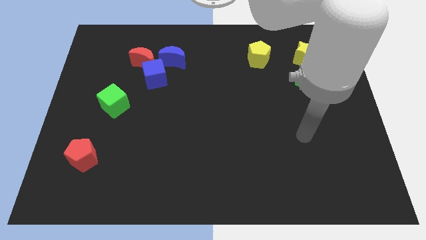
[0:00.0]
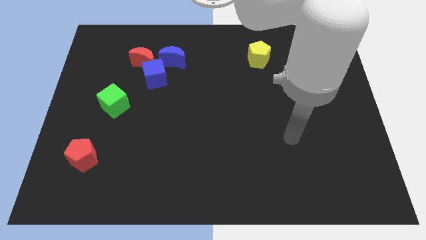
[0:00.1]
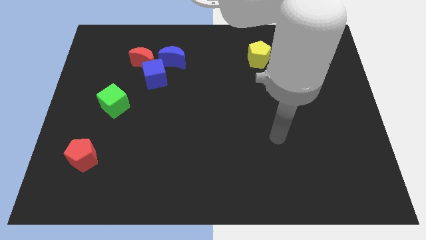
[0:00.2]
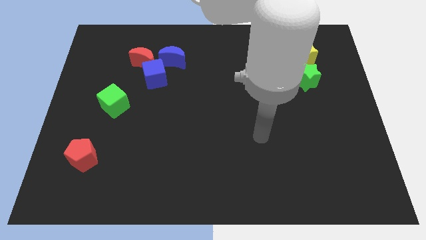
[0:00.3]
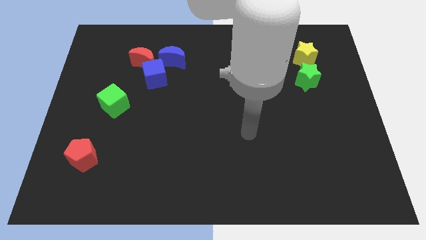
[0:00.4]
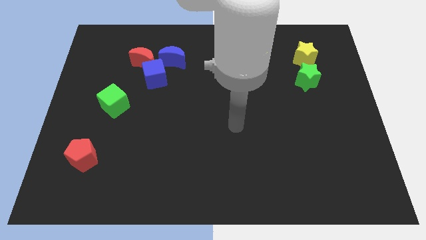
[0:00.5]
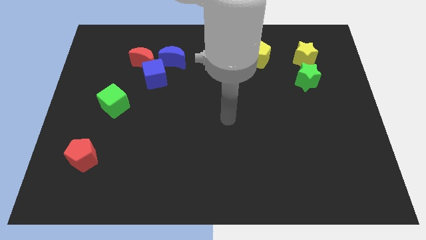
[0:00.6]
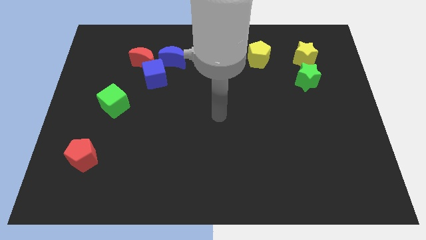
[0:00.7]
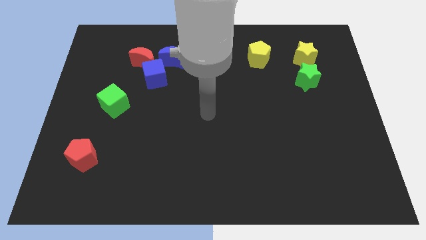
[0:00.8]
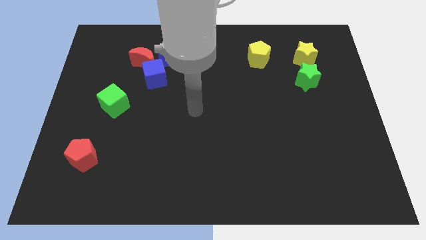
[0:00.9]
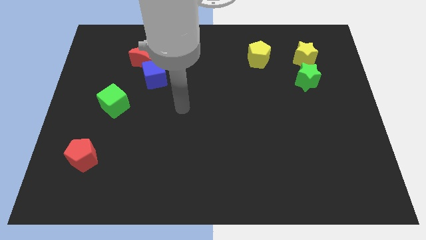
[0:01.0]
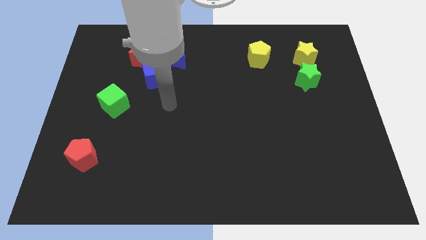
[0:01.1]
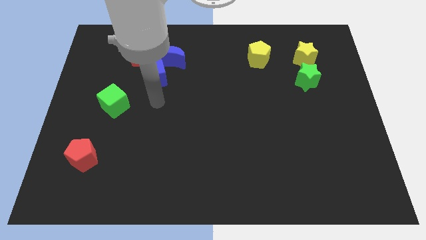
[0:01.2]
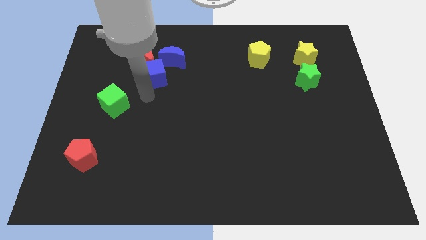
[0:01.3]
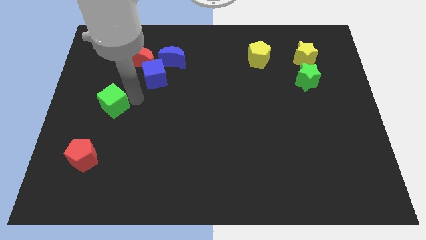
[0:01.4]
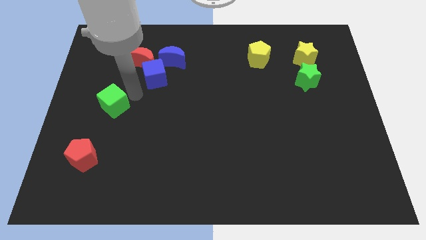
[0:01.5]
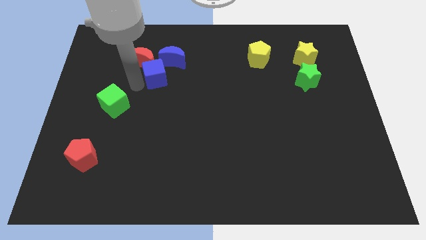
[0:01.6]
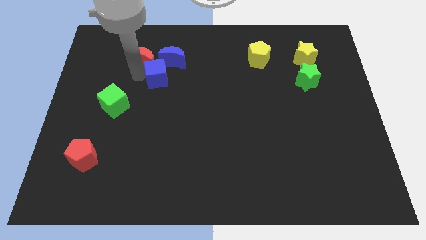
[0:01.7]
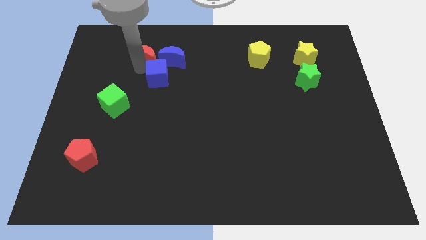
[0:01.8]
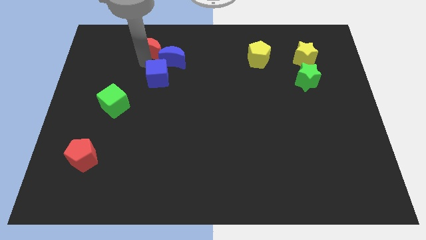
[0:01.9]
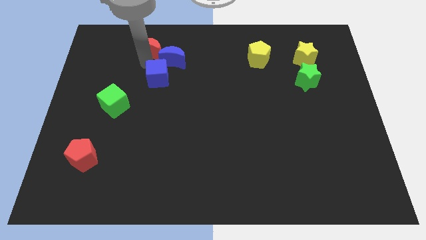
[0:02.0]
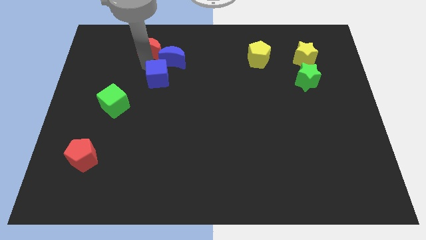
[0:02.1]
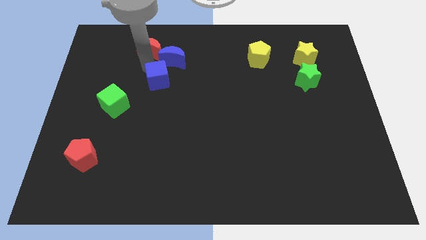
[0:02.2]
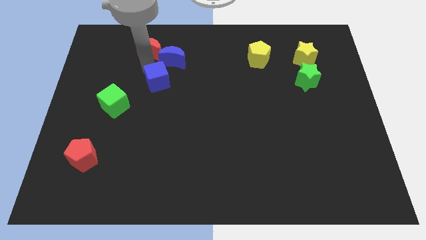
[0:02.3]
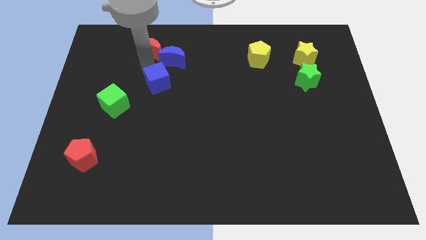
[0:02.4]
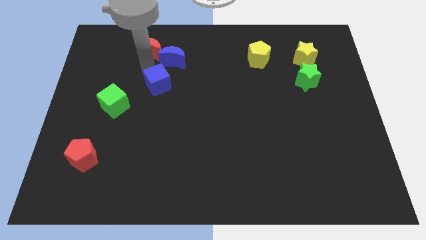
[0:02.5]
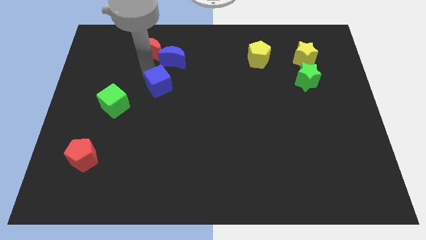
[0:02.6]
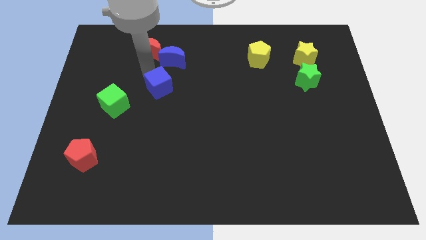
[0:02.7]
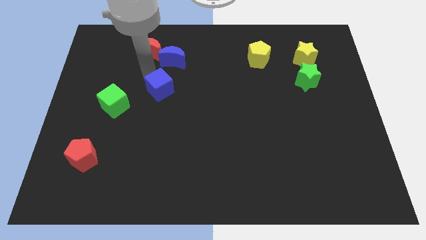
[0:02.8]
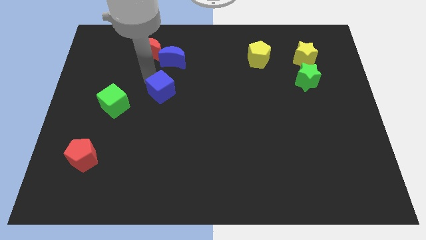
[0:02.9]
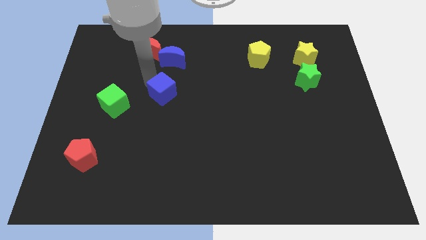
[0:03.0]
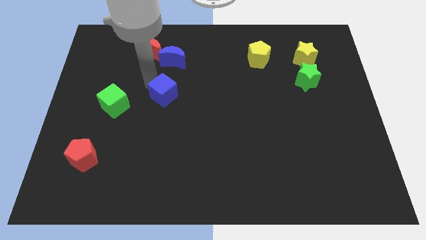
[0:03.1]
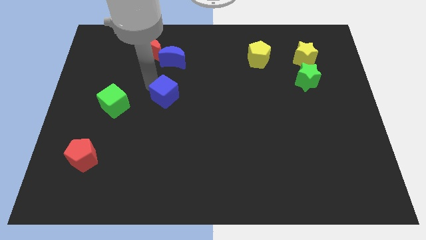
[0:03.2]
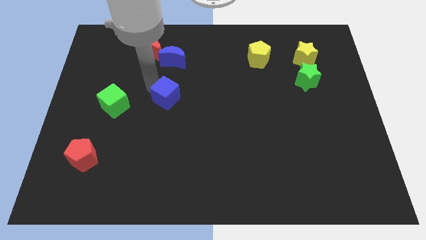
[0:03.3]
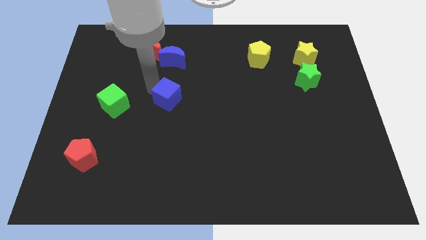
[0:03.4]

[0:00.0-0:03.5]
slide the blue cube a little down and then right

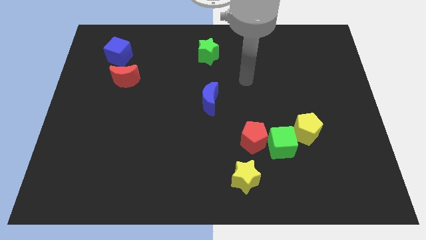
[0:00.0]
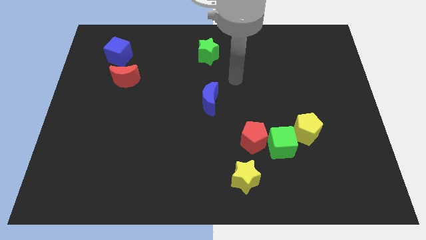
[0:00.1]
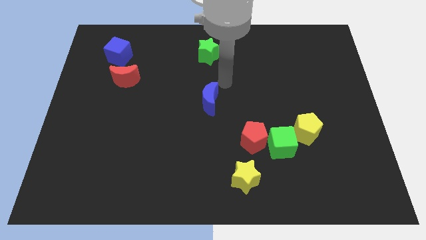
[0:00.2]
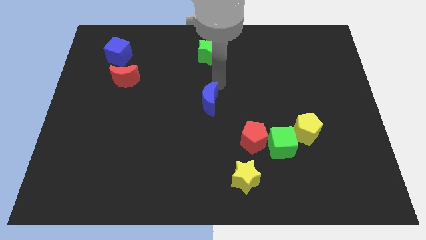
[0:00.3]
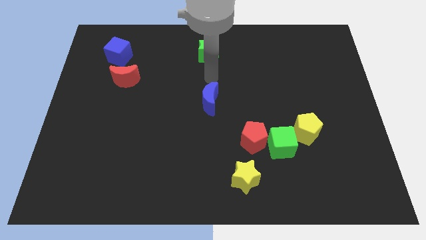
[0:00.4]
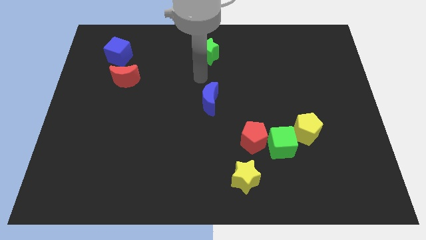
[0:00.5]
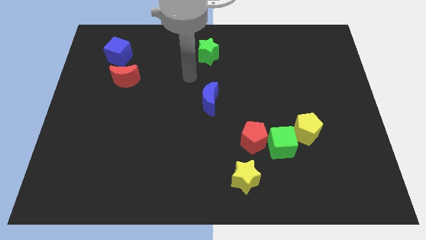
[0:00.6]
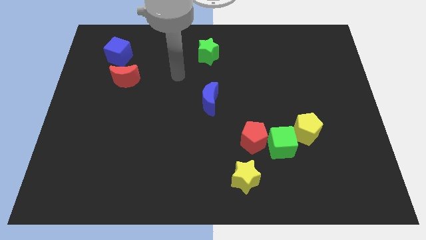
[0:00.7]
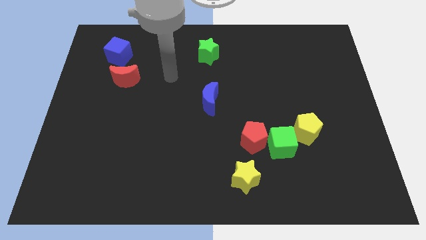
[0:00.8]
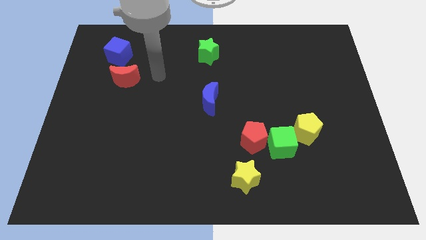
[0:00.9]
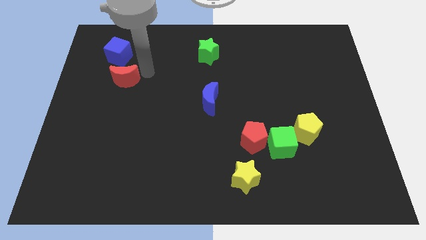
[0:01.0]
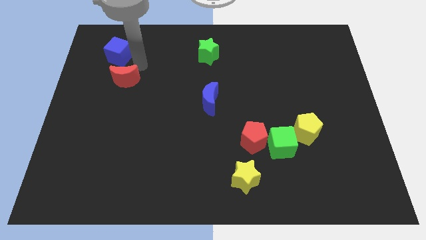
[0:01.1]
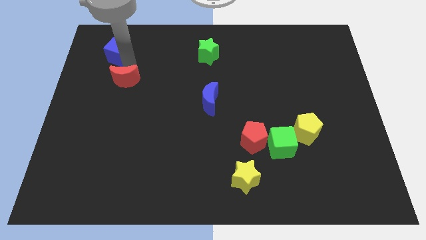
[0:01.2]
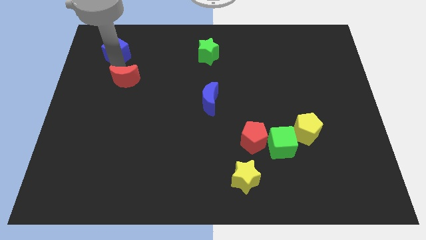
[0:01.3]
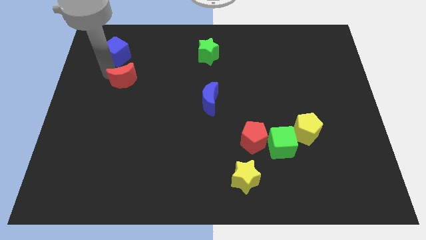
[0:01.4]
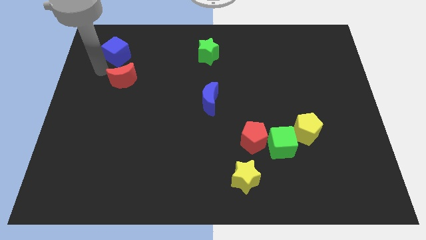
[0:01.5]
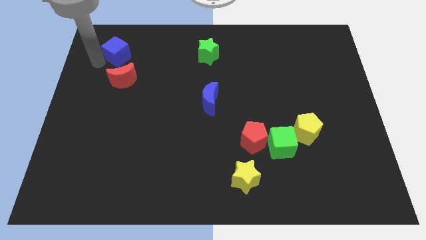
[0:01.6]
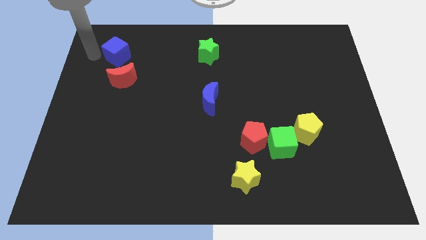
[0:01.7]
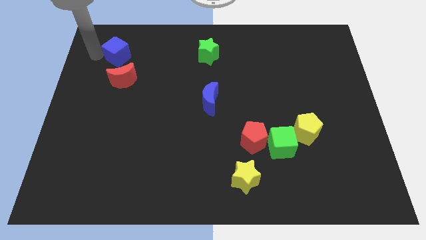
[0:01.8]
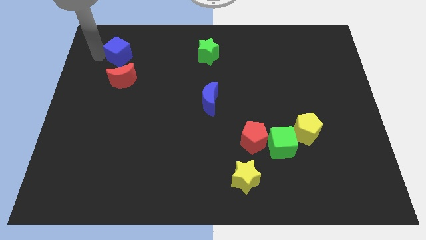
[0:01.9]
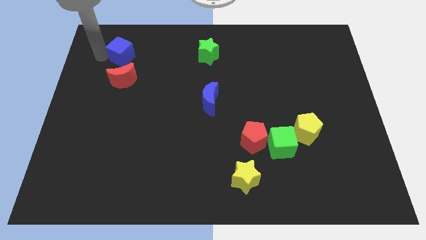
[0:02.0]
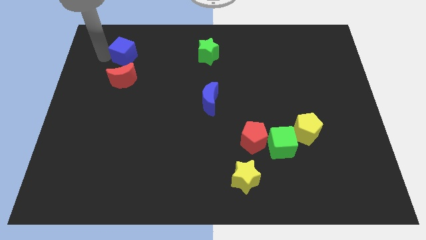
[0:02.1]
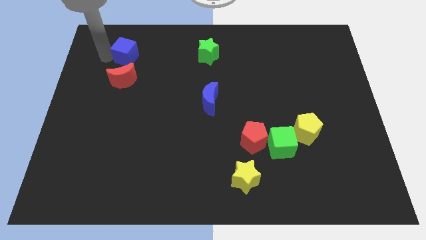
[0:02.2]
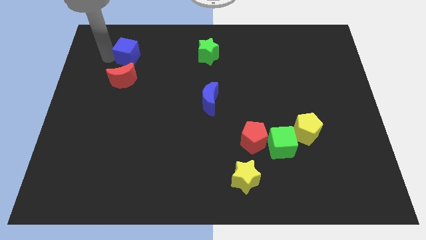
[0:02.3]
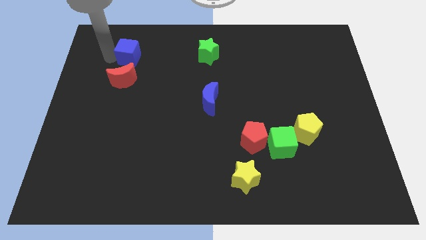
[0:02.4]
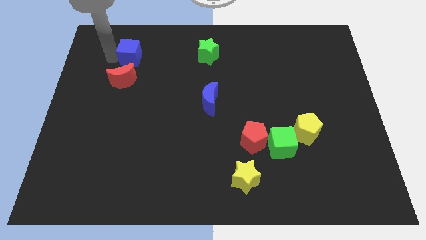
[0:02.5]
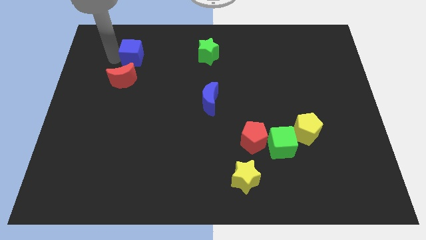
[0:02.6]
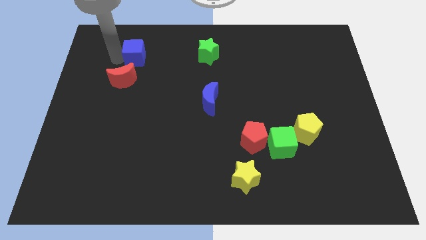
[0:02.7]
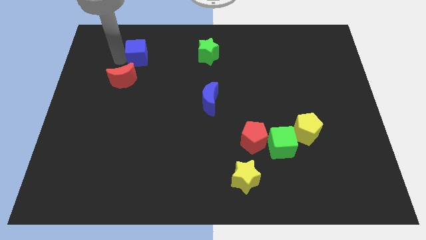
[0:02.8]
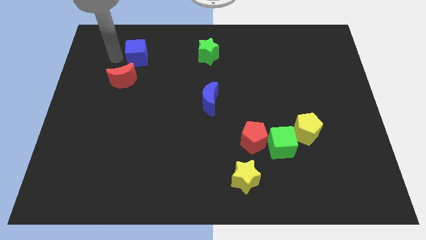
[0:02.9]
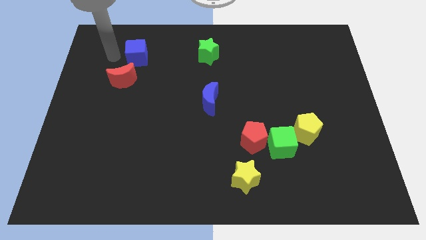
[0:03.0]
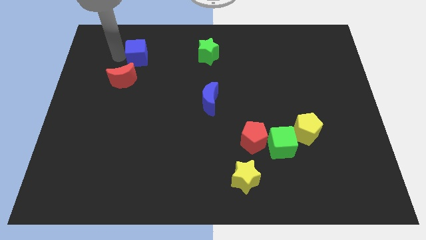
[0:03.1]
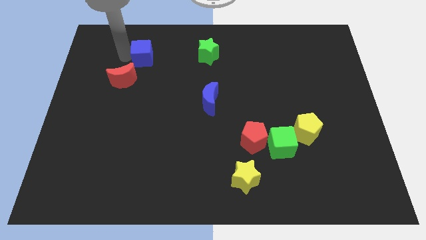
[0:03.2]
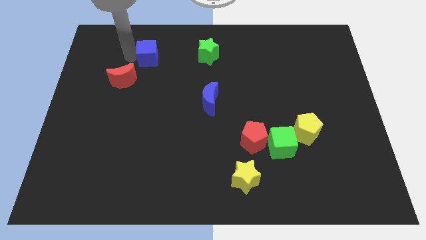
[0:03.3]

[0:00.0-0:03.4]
slide the blue cube a little bit to the right

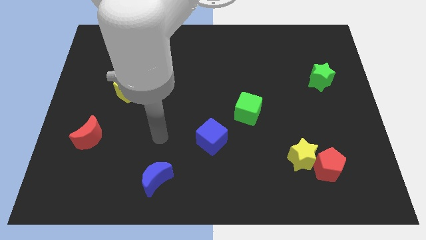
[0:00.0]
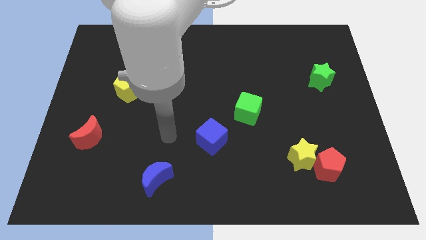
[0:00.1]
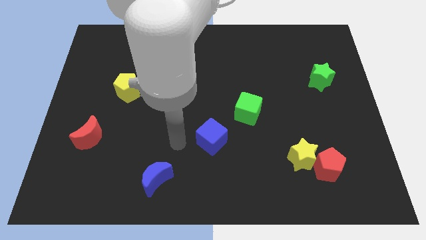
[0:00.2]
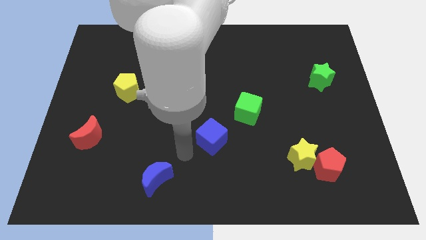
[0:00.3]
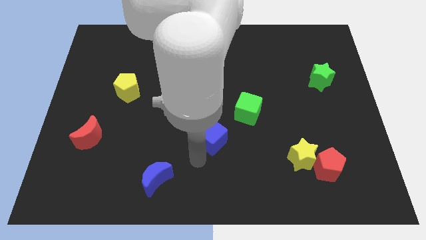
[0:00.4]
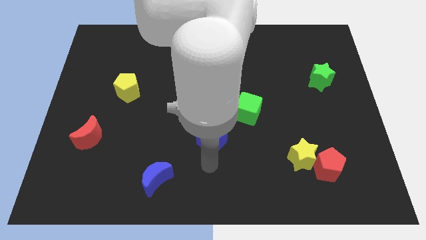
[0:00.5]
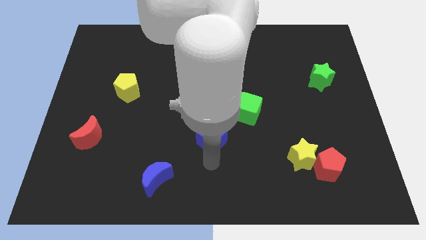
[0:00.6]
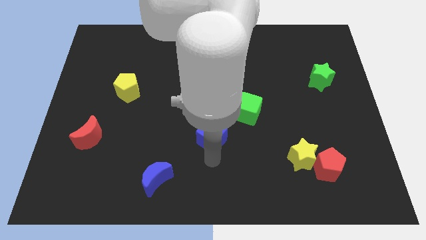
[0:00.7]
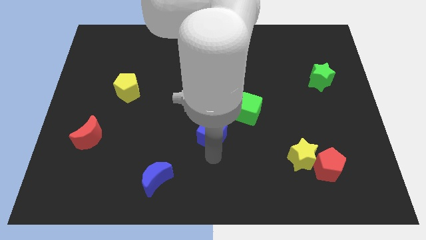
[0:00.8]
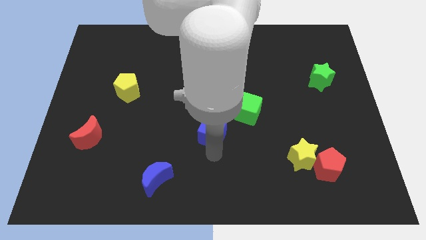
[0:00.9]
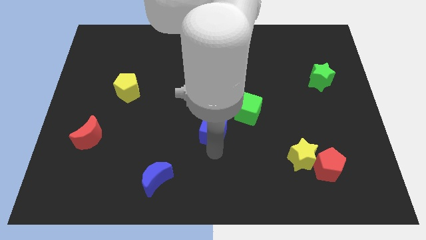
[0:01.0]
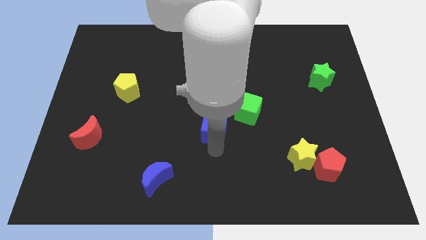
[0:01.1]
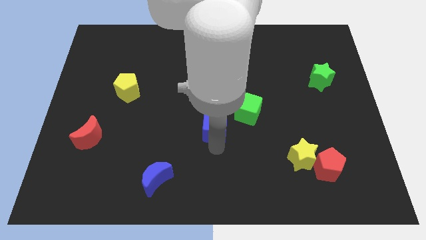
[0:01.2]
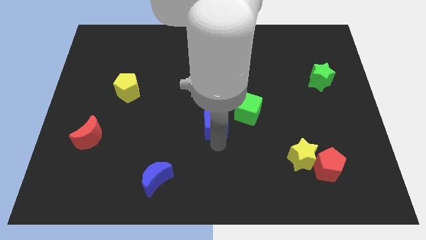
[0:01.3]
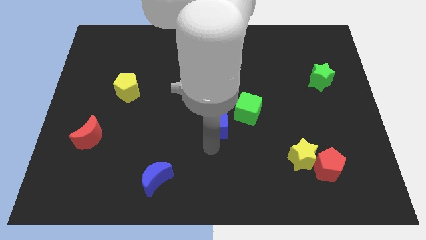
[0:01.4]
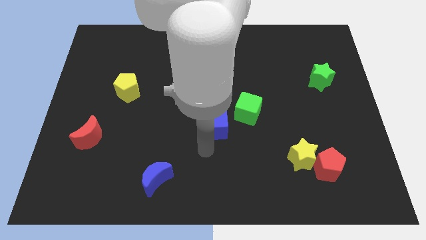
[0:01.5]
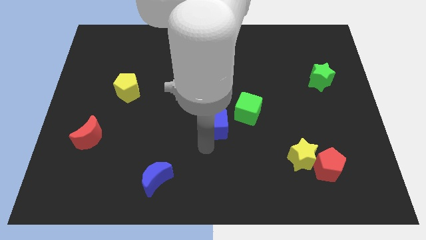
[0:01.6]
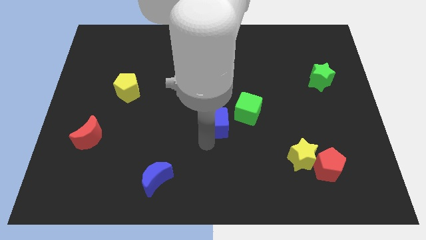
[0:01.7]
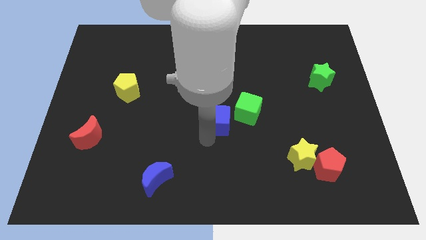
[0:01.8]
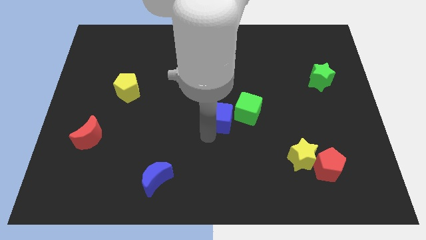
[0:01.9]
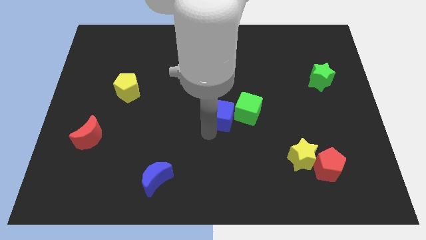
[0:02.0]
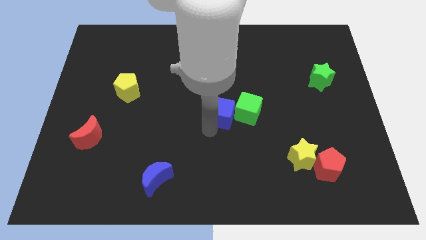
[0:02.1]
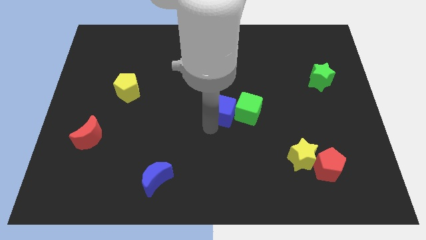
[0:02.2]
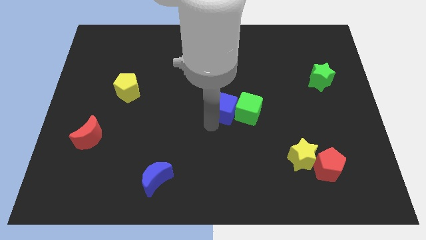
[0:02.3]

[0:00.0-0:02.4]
push the blue cube somewhat upwards and right diagonally
